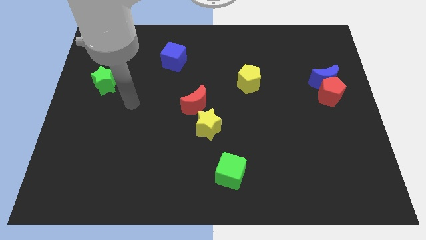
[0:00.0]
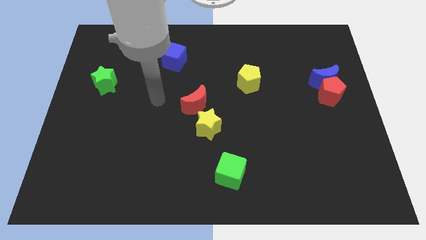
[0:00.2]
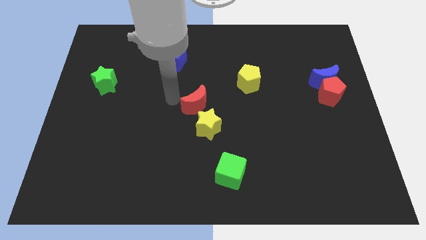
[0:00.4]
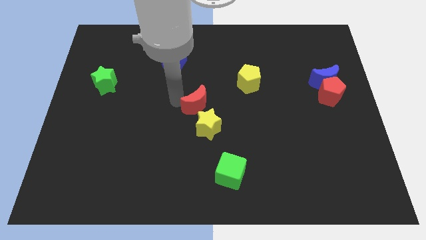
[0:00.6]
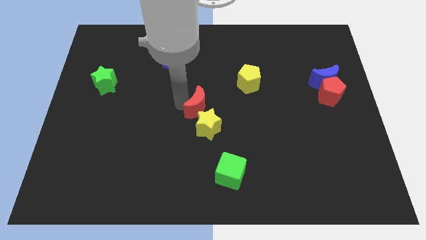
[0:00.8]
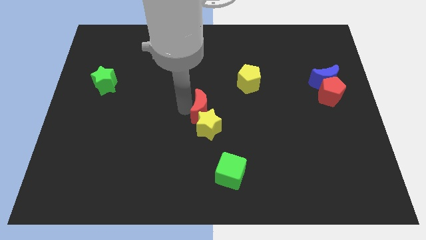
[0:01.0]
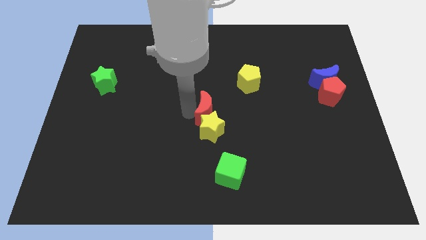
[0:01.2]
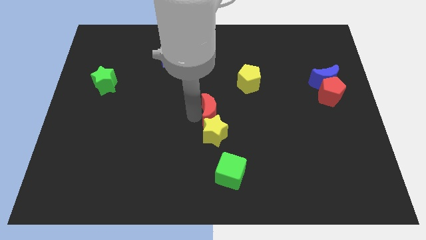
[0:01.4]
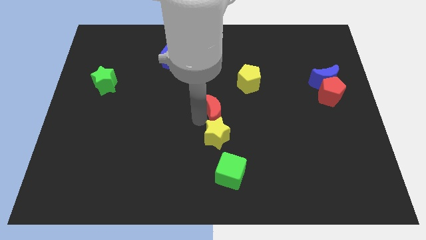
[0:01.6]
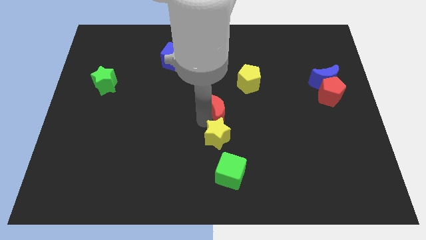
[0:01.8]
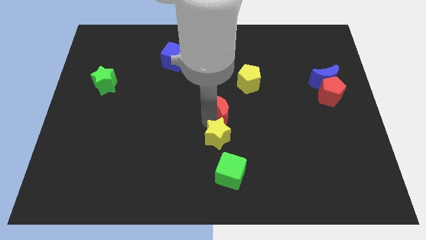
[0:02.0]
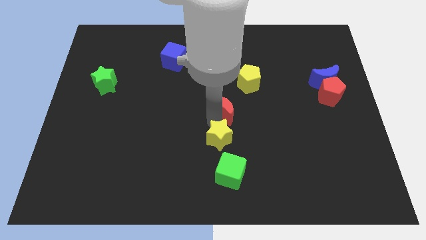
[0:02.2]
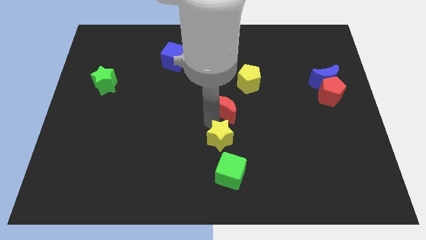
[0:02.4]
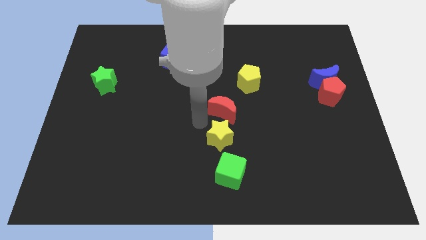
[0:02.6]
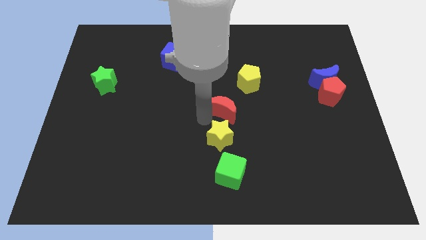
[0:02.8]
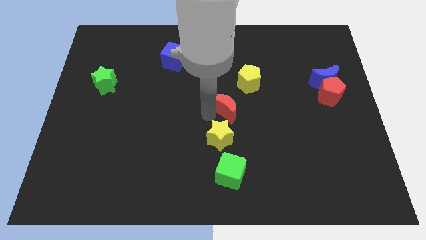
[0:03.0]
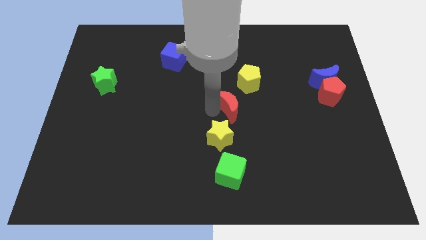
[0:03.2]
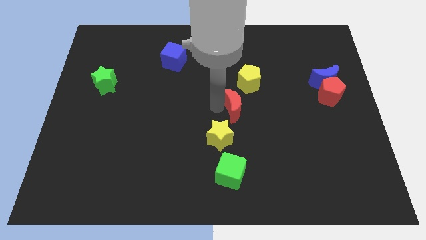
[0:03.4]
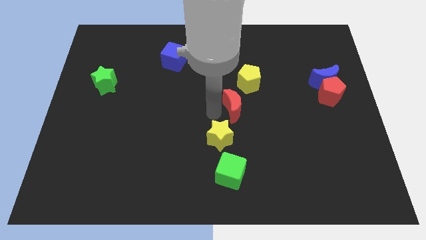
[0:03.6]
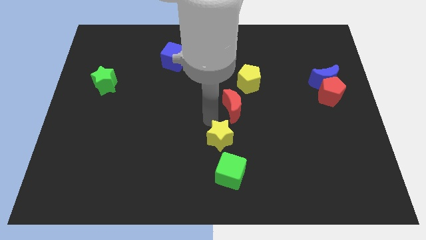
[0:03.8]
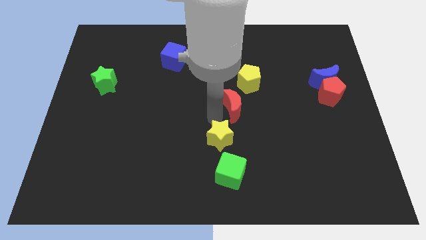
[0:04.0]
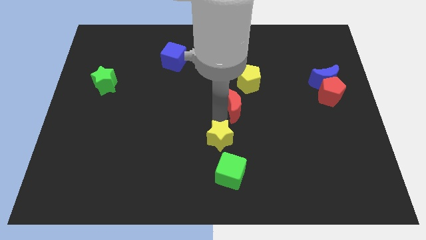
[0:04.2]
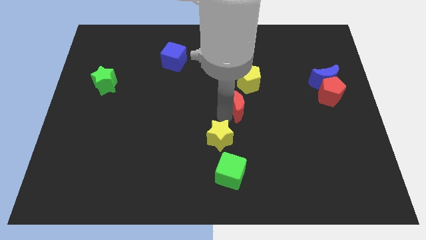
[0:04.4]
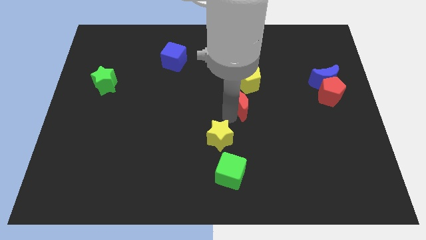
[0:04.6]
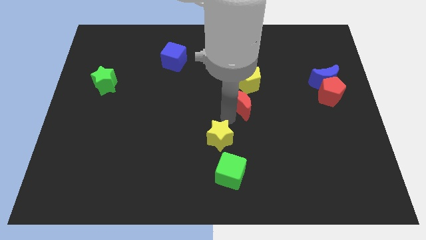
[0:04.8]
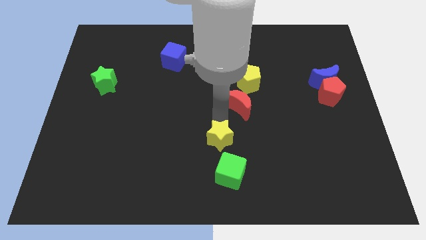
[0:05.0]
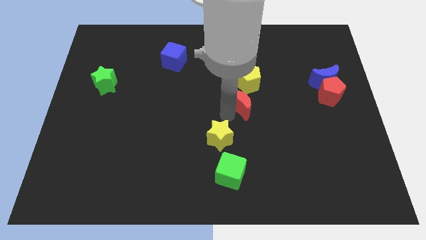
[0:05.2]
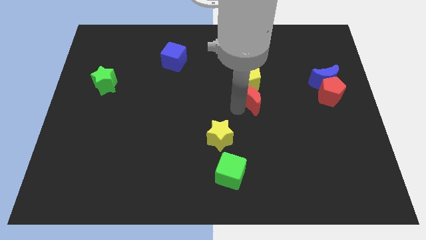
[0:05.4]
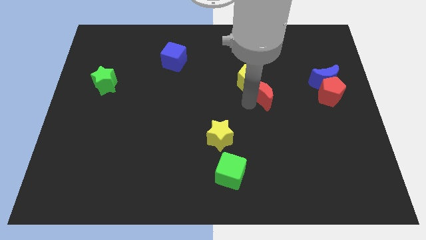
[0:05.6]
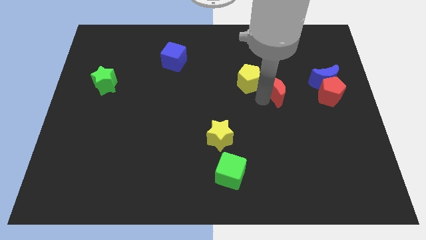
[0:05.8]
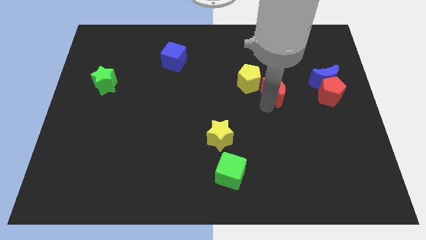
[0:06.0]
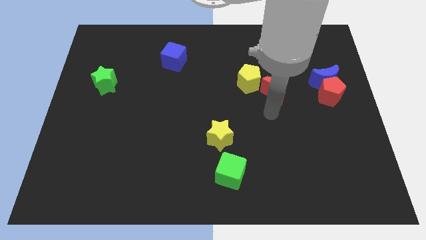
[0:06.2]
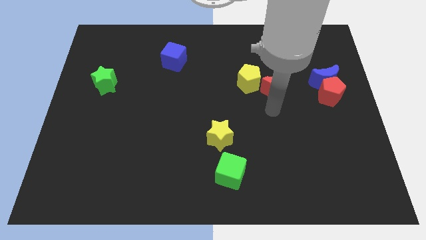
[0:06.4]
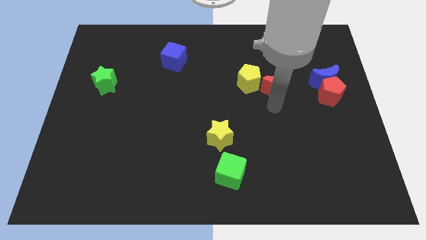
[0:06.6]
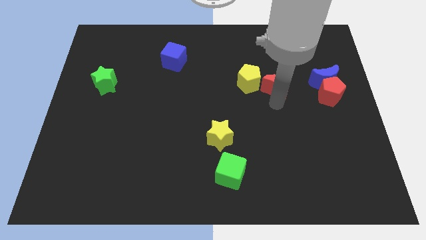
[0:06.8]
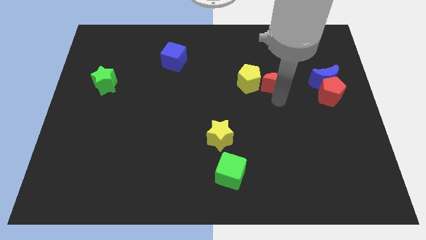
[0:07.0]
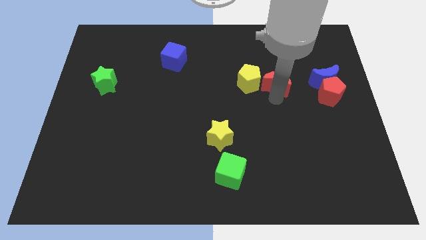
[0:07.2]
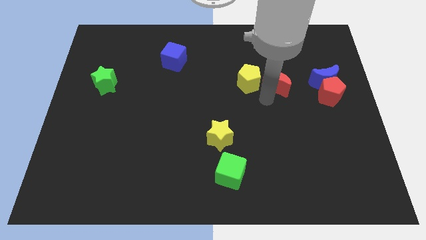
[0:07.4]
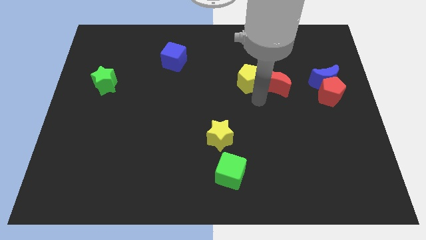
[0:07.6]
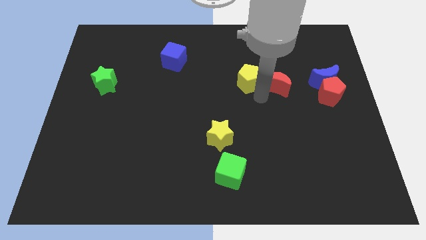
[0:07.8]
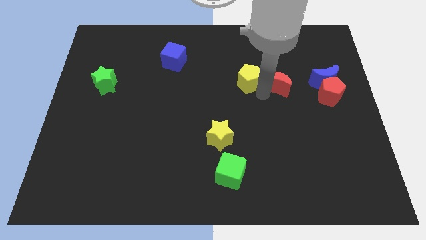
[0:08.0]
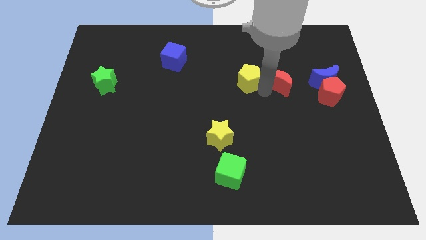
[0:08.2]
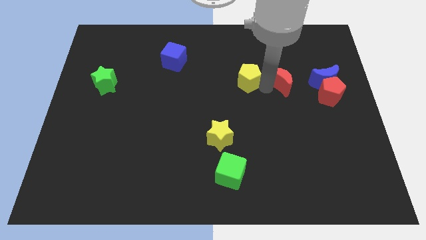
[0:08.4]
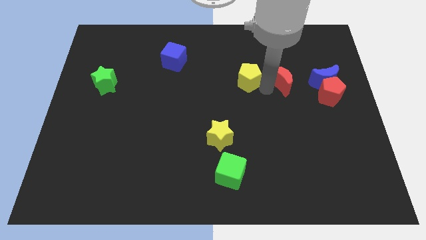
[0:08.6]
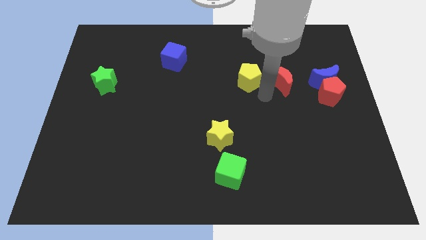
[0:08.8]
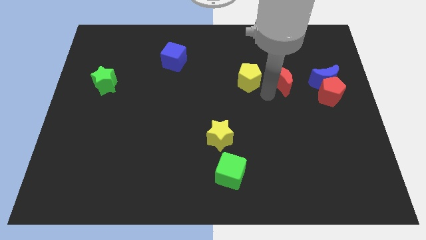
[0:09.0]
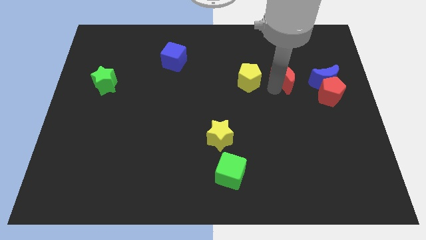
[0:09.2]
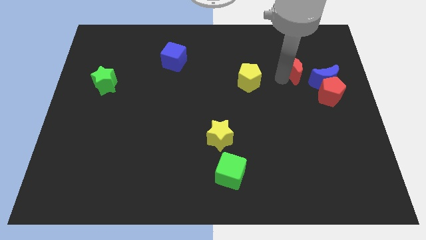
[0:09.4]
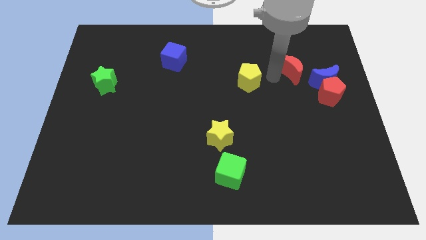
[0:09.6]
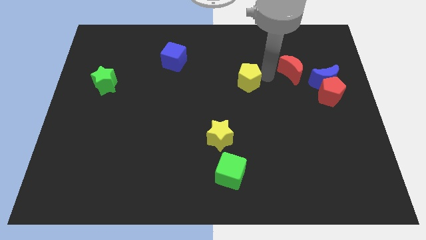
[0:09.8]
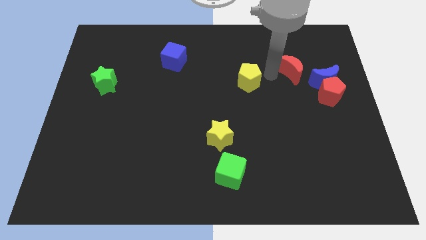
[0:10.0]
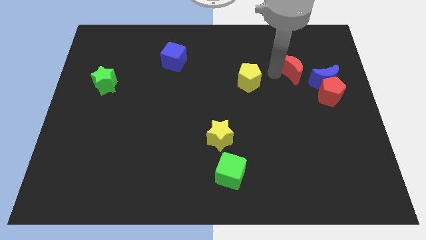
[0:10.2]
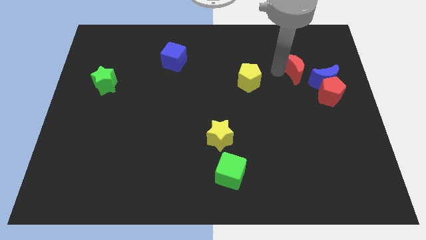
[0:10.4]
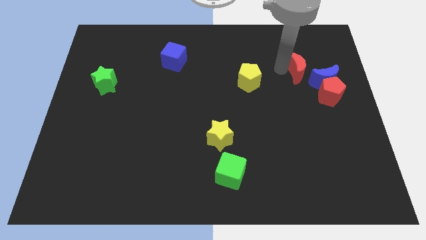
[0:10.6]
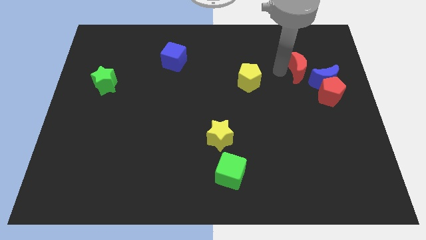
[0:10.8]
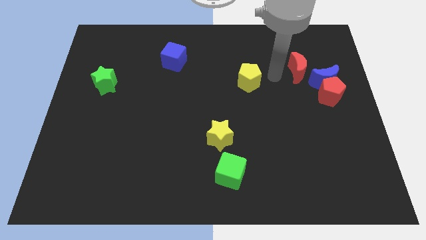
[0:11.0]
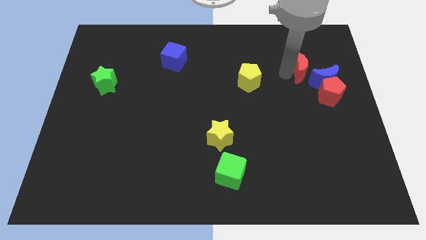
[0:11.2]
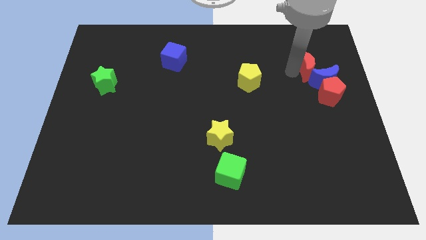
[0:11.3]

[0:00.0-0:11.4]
move the red moon above the red pentagon

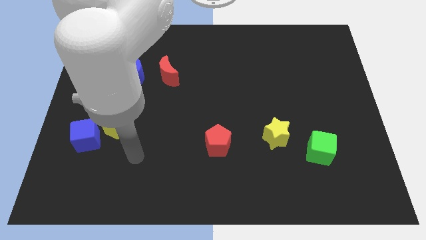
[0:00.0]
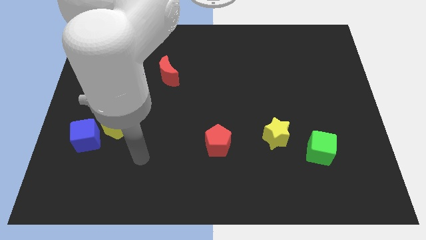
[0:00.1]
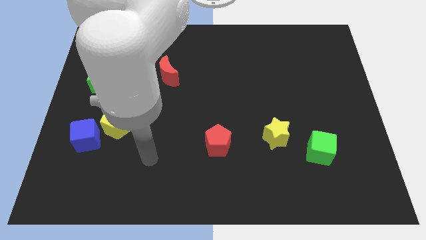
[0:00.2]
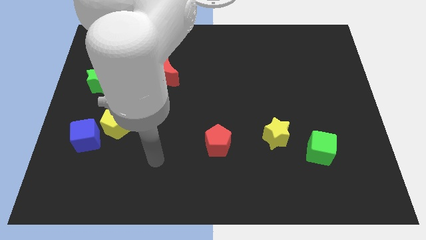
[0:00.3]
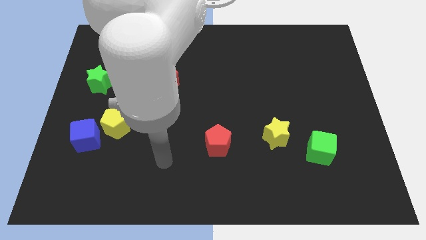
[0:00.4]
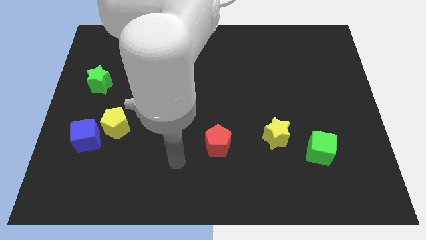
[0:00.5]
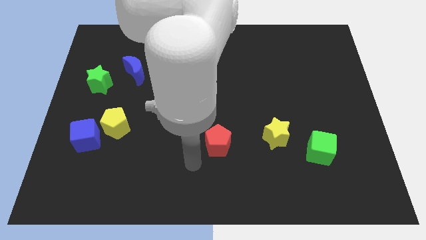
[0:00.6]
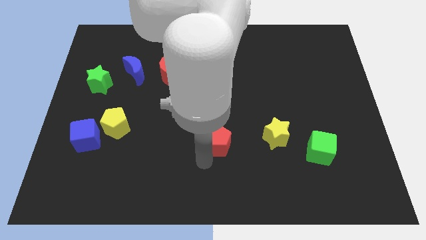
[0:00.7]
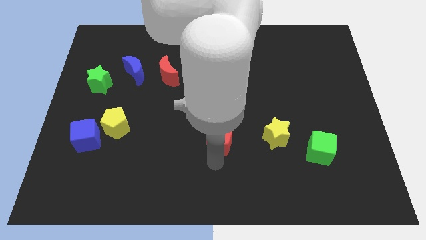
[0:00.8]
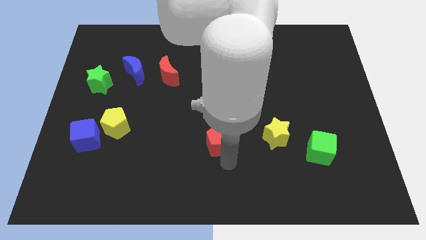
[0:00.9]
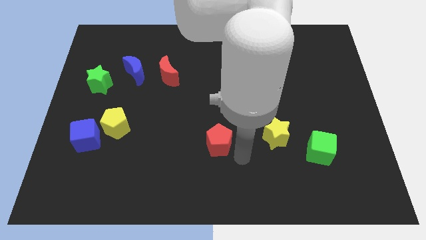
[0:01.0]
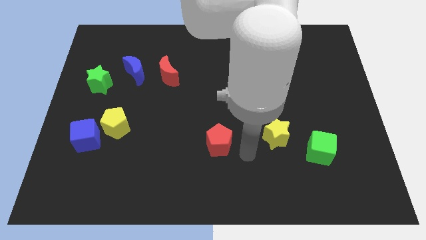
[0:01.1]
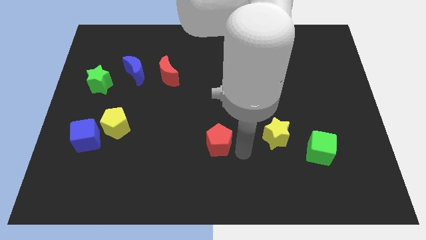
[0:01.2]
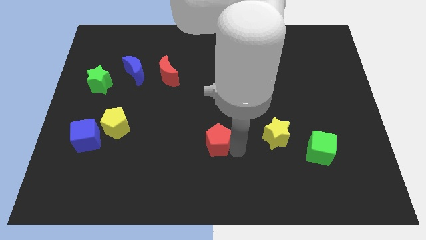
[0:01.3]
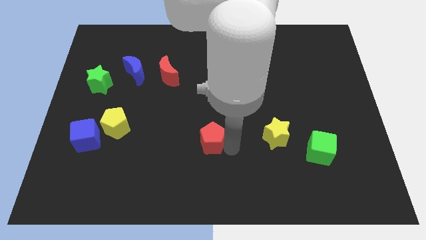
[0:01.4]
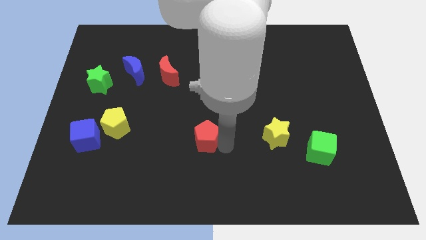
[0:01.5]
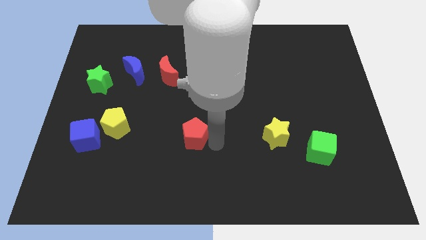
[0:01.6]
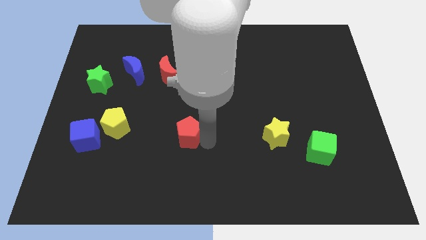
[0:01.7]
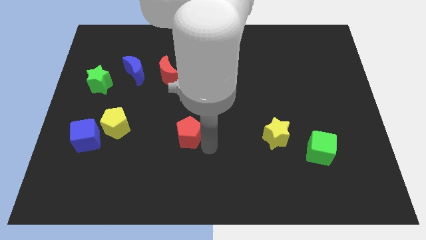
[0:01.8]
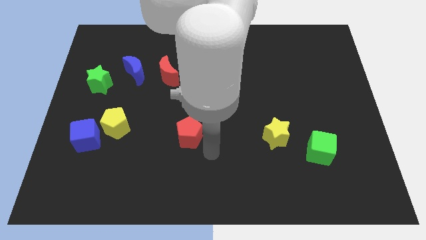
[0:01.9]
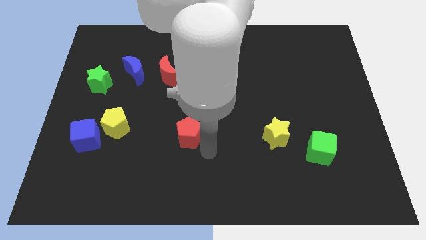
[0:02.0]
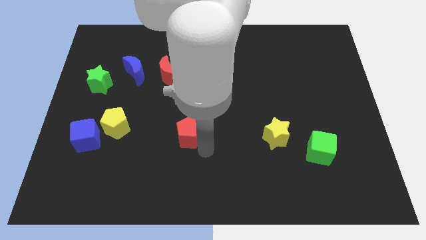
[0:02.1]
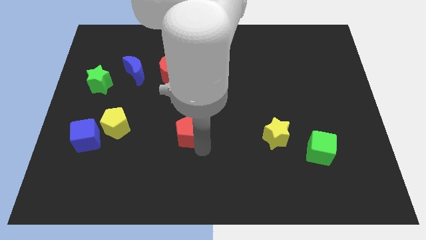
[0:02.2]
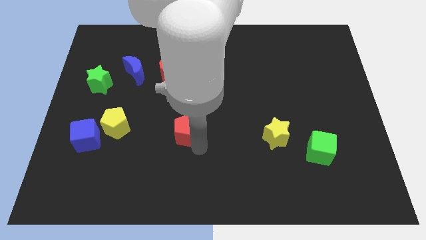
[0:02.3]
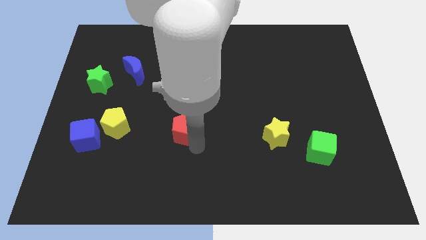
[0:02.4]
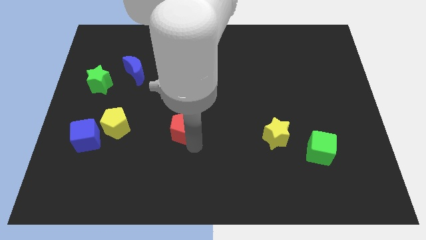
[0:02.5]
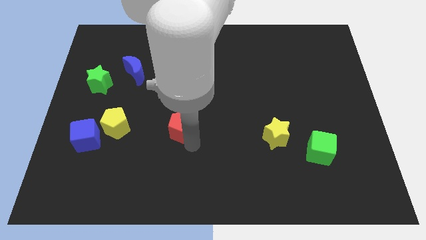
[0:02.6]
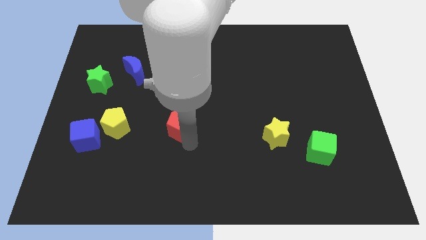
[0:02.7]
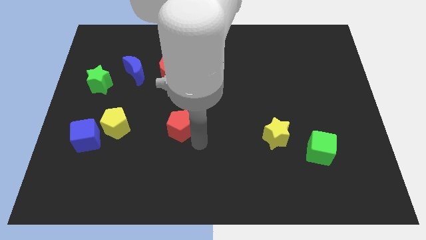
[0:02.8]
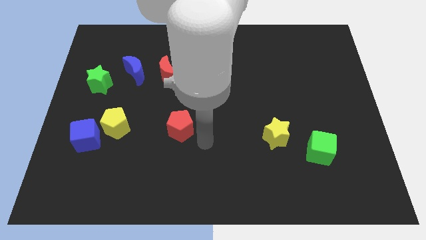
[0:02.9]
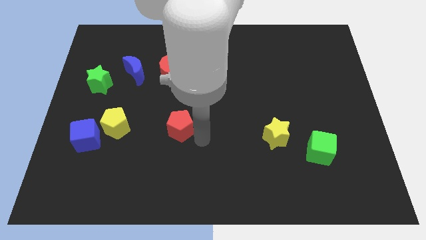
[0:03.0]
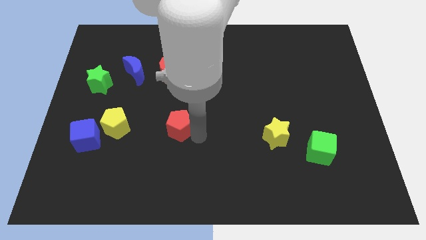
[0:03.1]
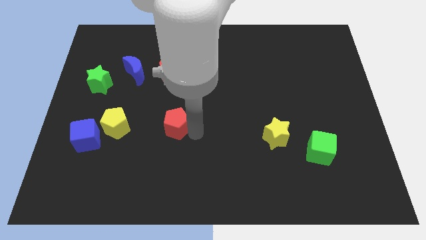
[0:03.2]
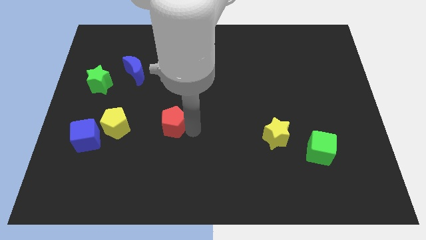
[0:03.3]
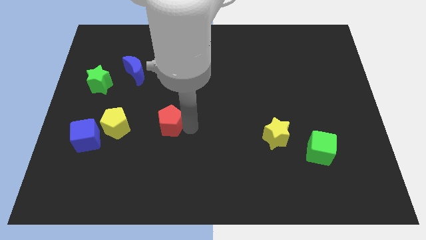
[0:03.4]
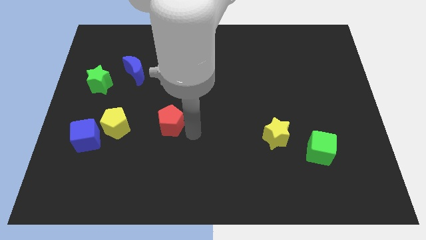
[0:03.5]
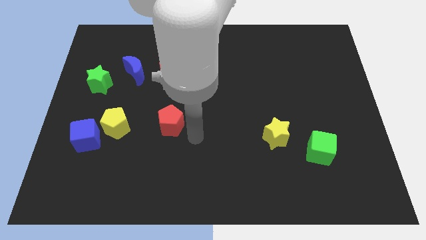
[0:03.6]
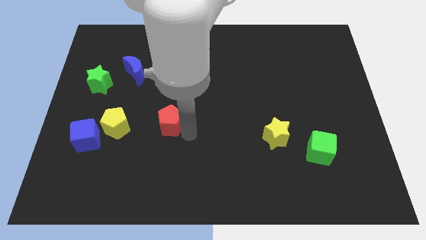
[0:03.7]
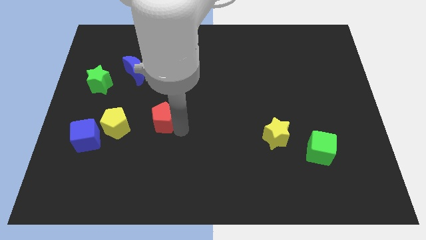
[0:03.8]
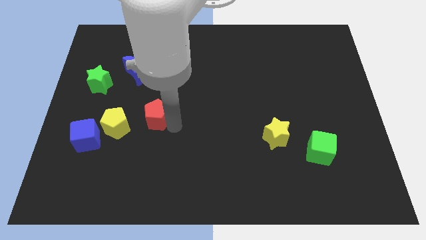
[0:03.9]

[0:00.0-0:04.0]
slide the red pentagon to the top right of the yellow pentagon
